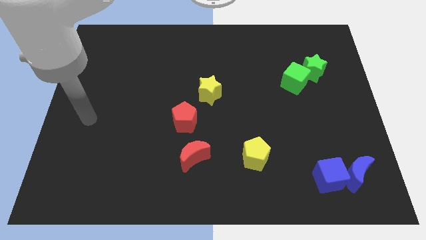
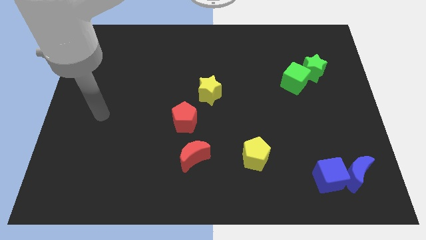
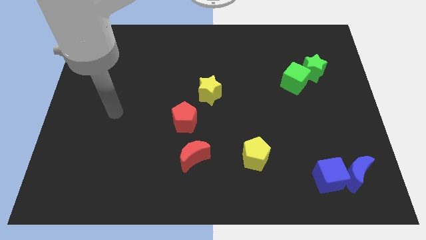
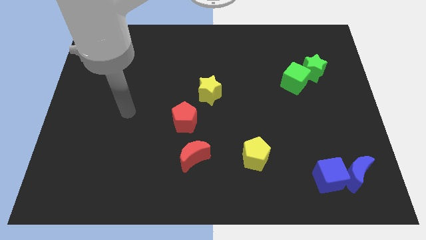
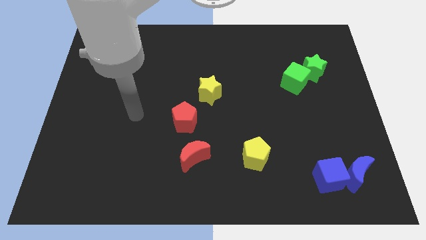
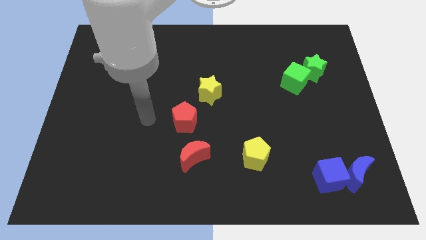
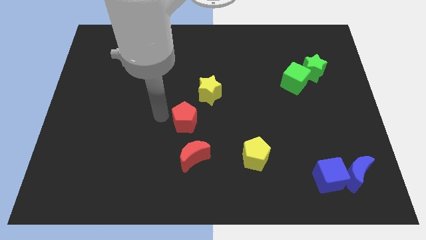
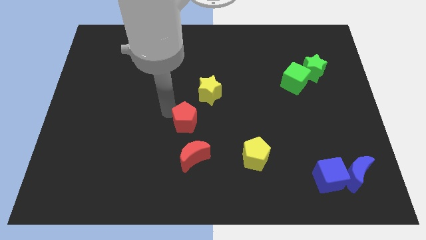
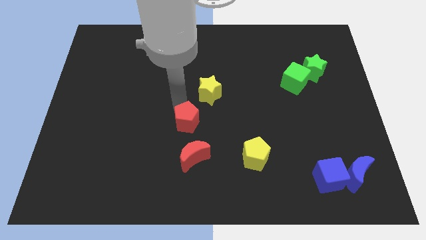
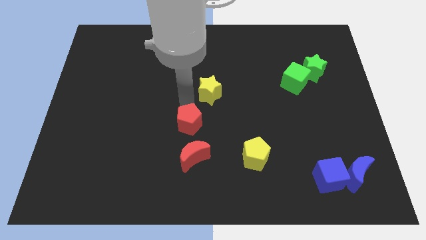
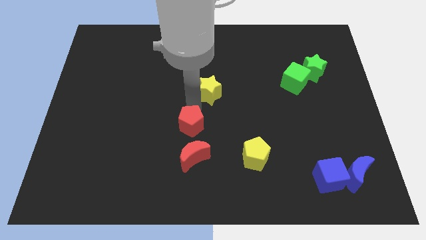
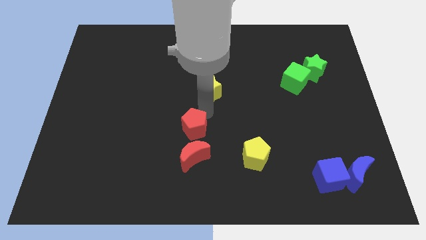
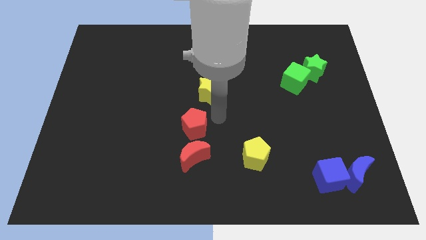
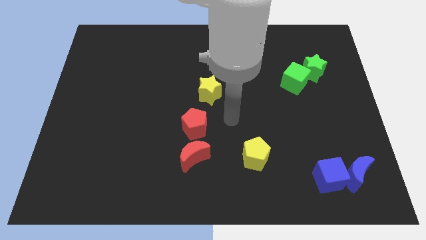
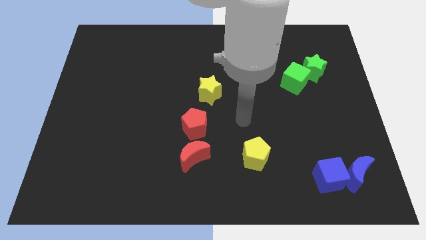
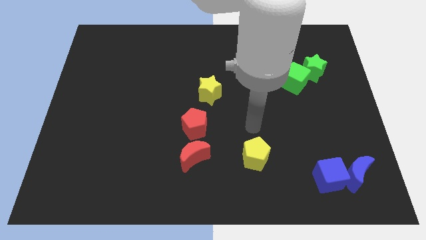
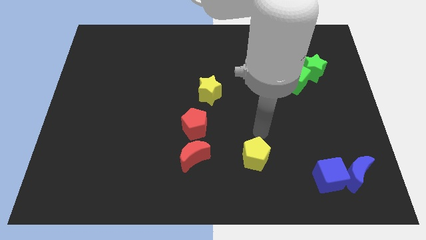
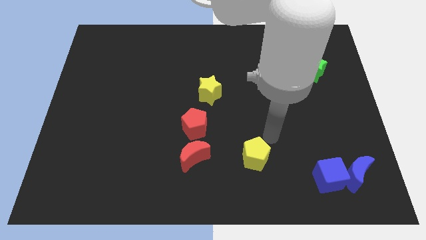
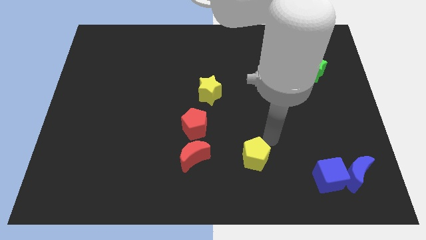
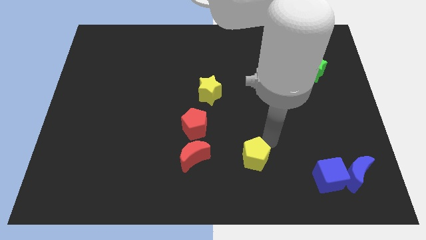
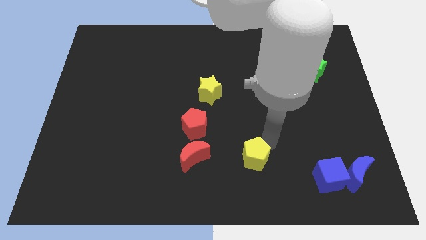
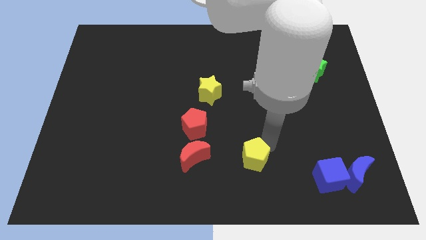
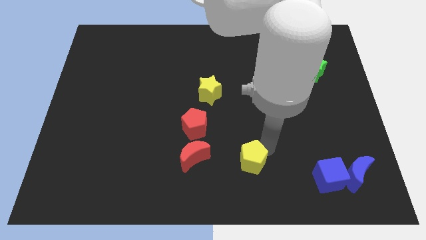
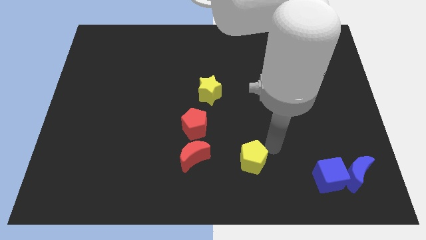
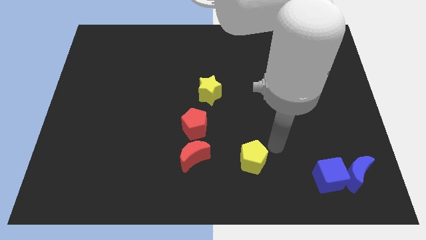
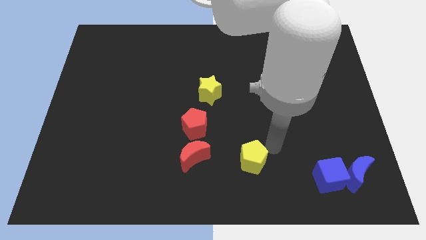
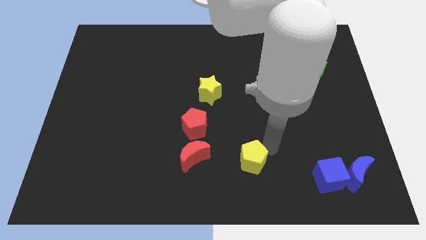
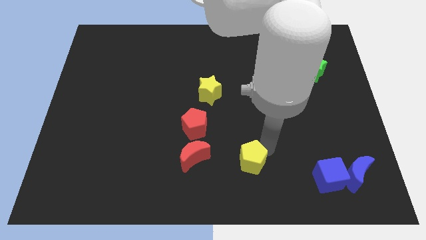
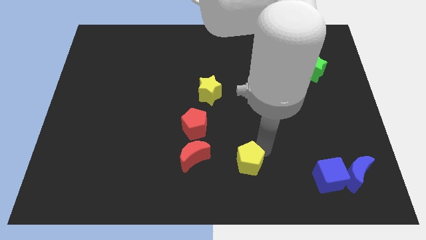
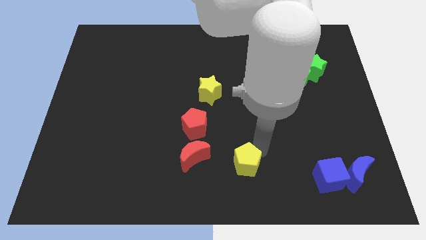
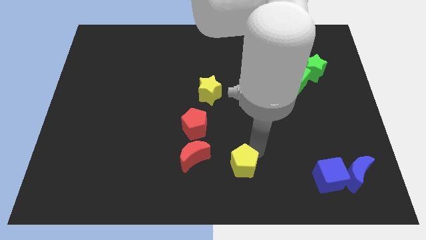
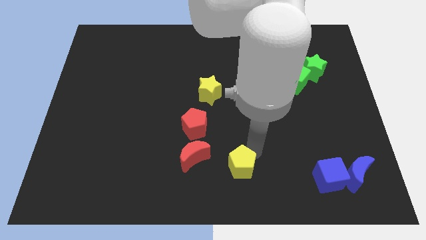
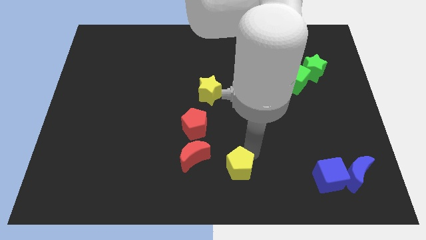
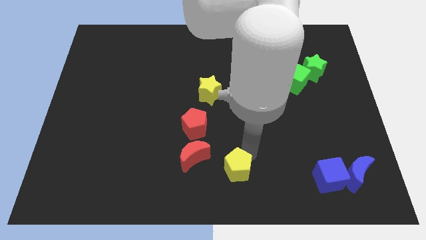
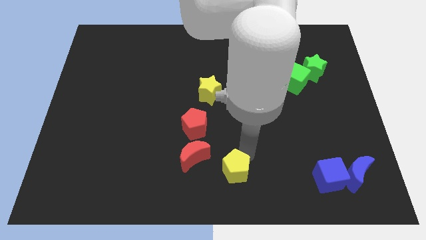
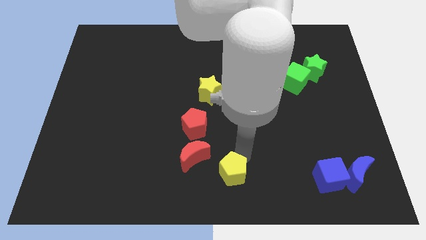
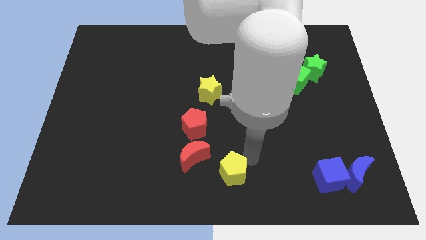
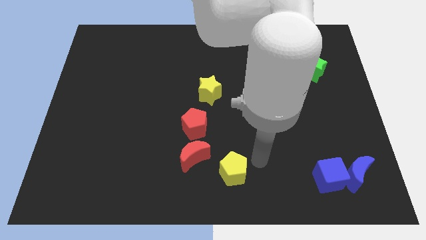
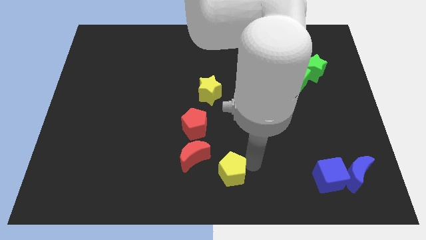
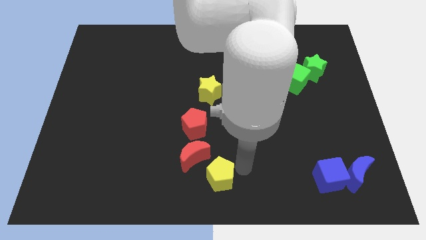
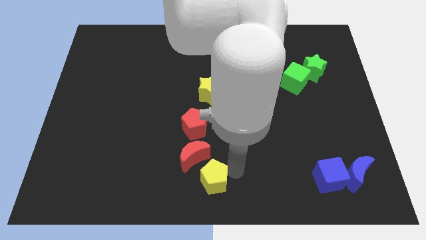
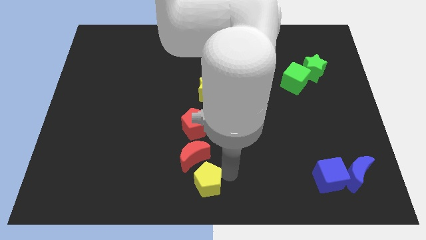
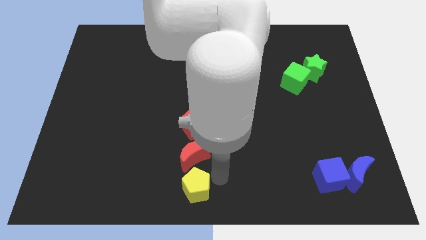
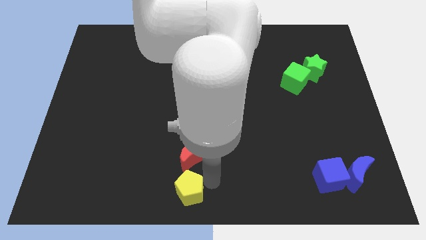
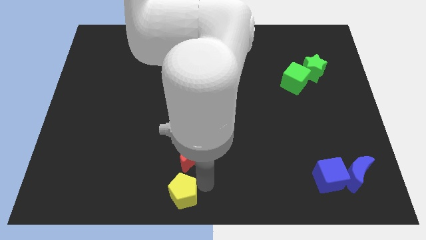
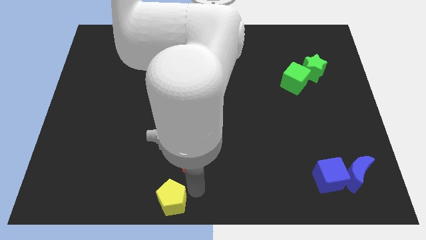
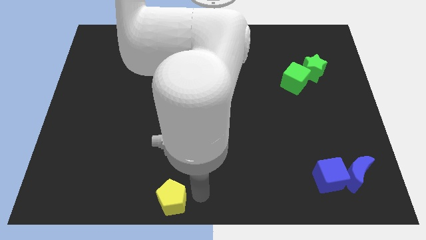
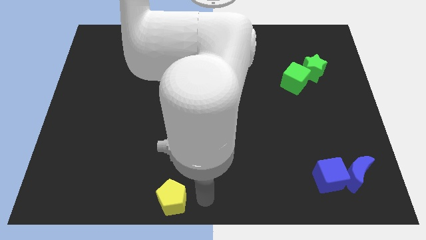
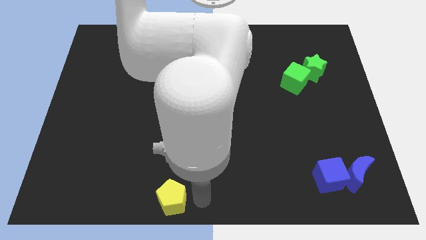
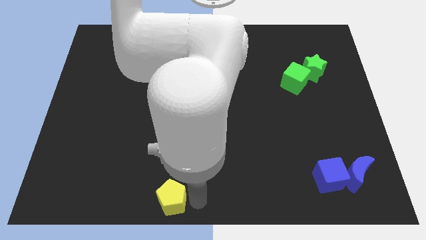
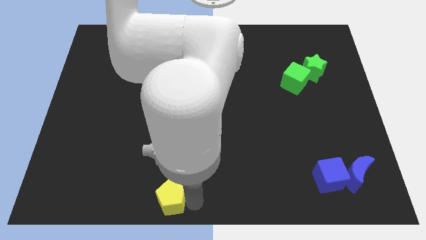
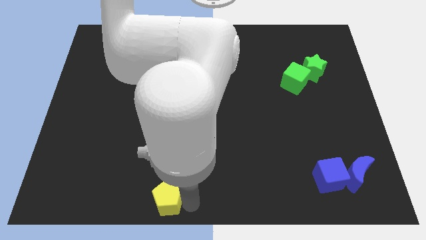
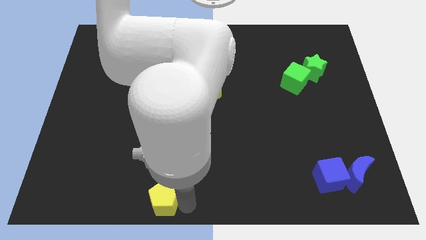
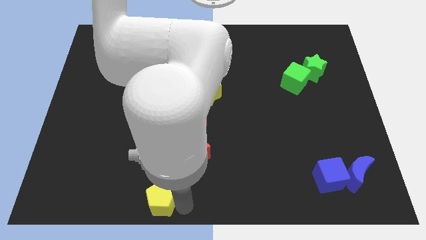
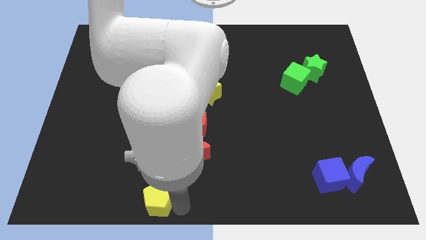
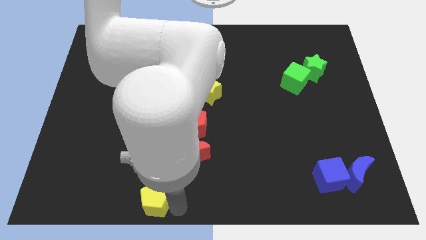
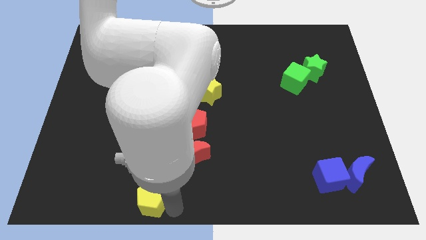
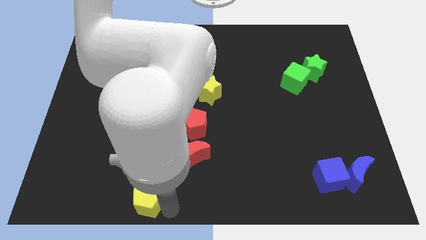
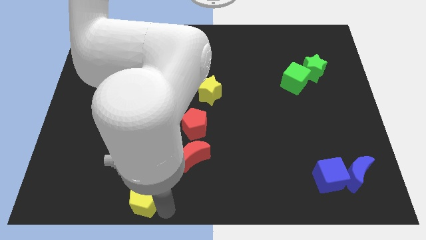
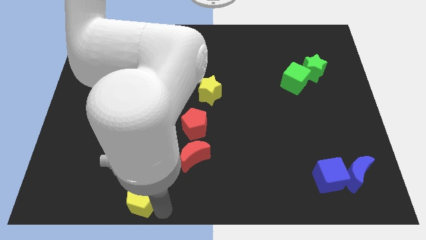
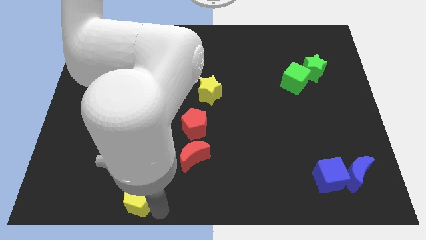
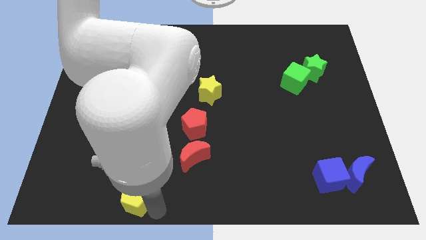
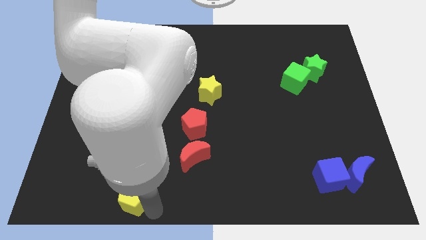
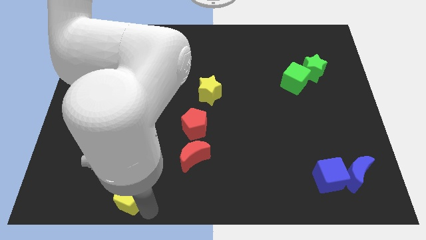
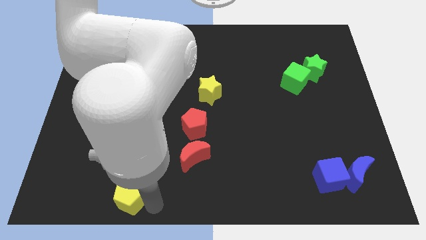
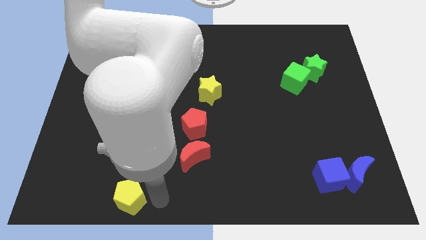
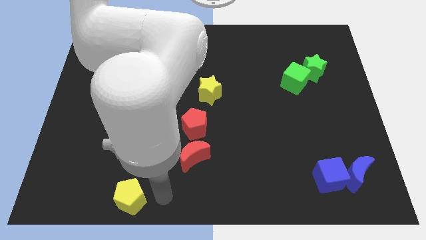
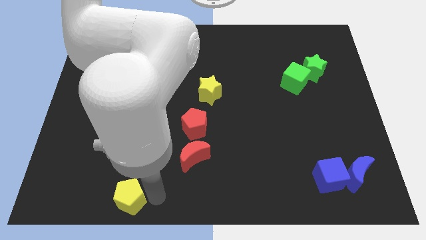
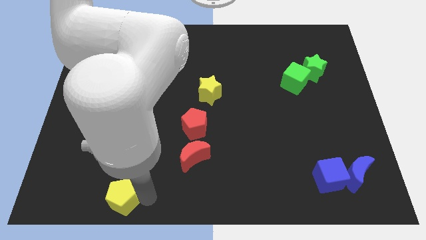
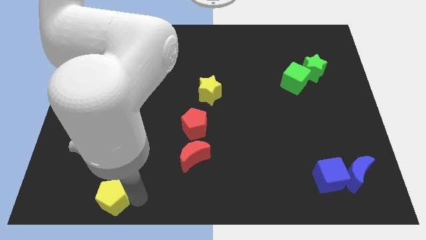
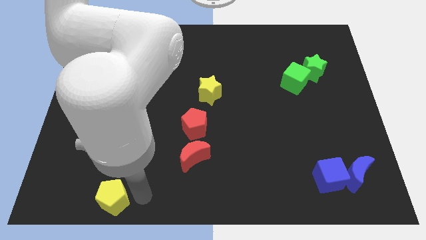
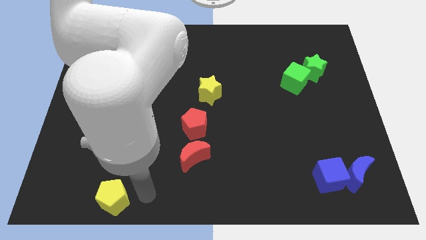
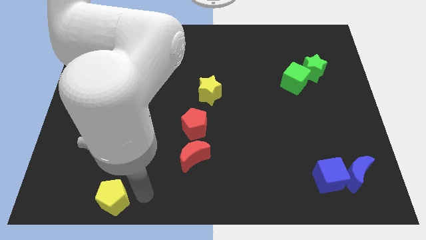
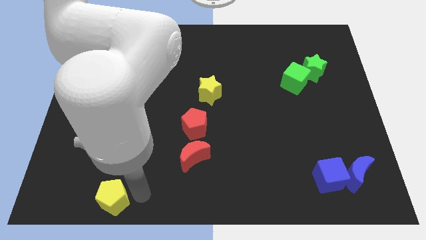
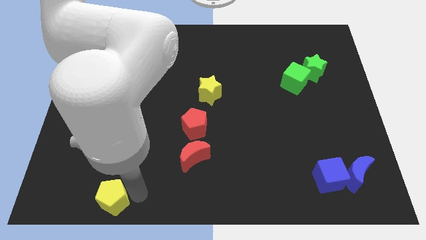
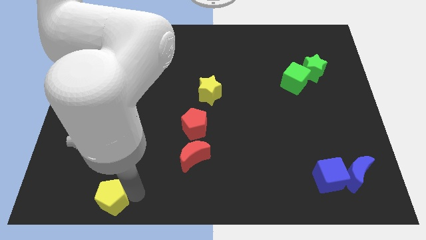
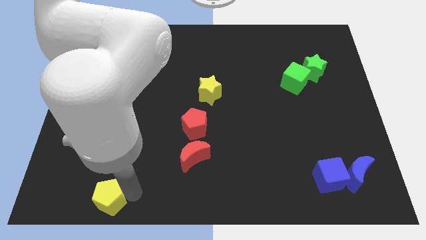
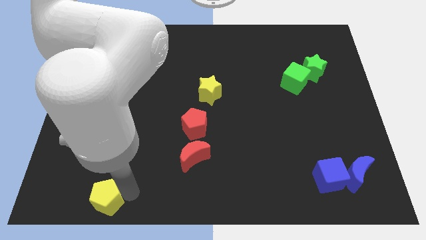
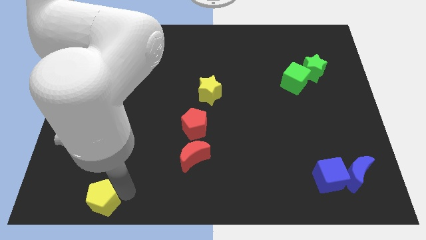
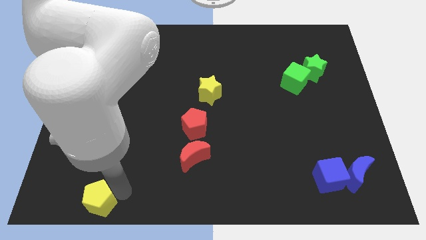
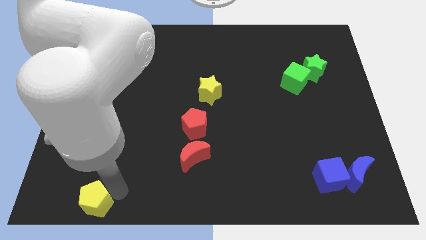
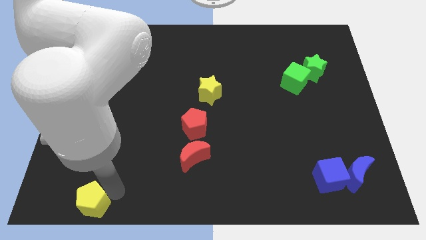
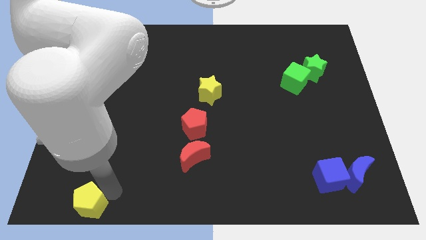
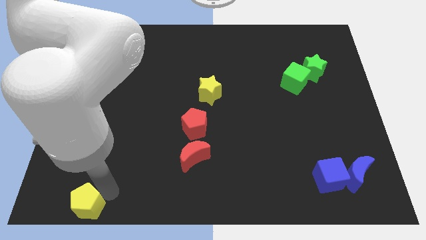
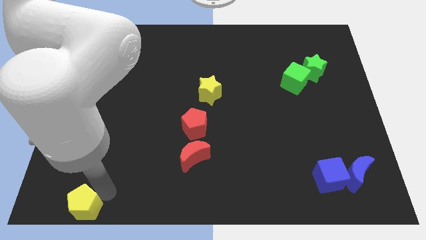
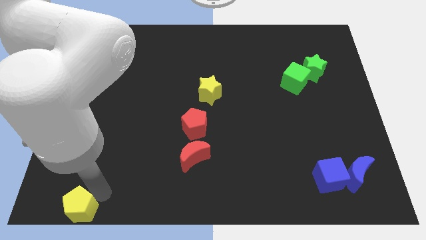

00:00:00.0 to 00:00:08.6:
put the yellow pentagon to the lower left corner
